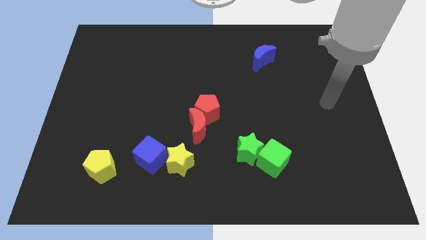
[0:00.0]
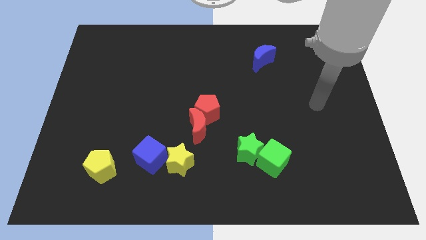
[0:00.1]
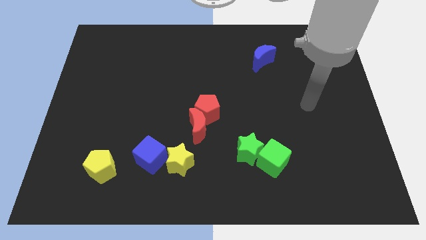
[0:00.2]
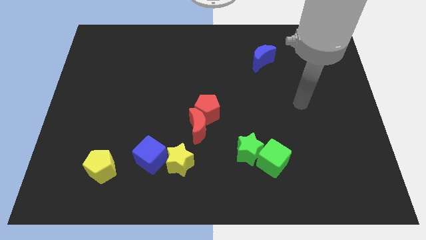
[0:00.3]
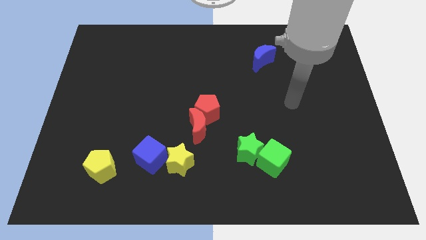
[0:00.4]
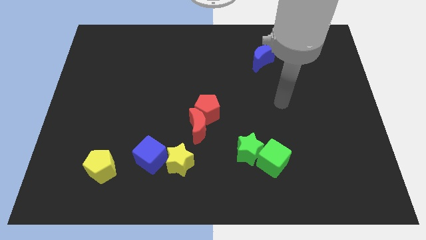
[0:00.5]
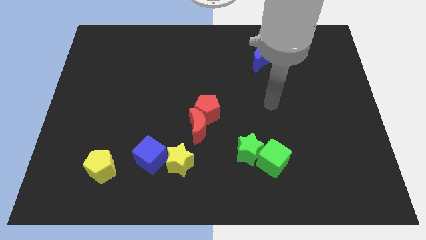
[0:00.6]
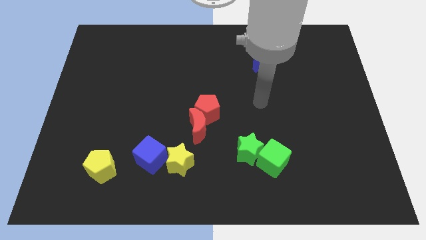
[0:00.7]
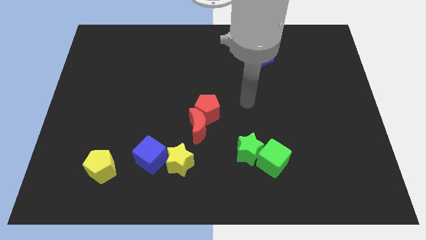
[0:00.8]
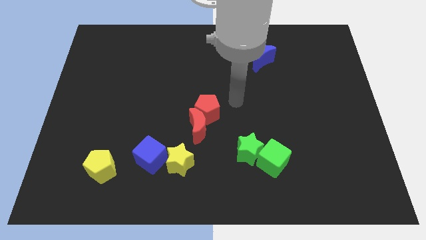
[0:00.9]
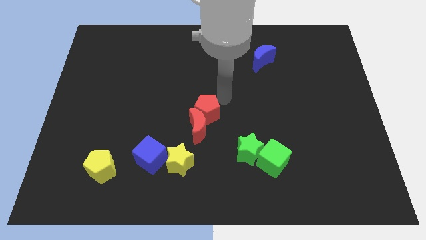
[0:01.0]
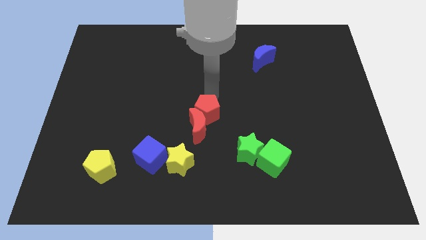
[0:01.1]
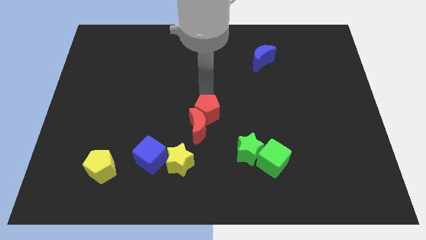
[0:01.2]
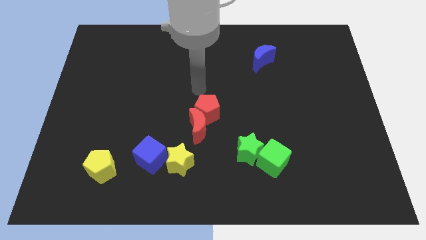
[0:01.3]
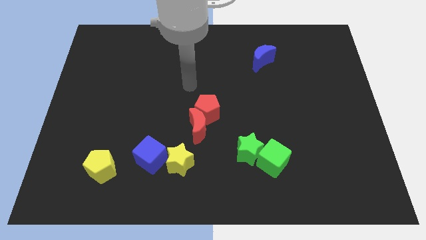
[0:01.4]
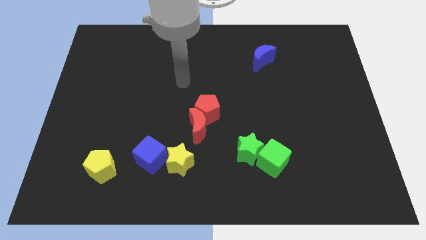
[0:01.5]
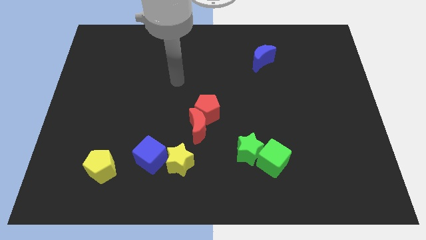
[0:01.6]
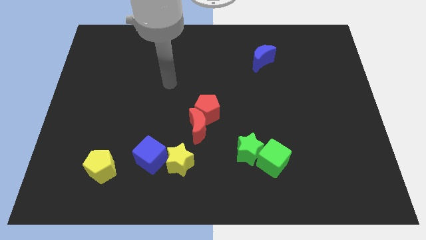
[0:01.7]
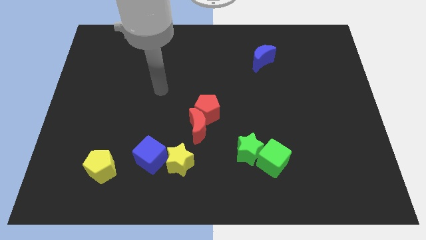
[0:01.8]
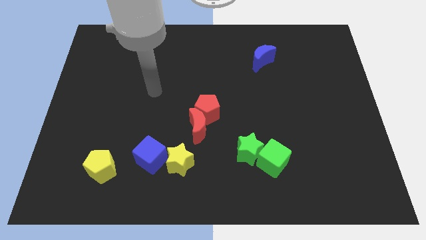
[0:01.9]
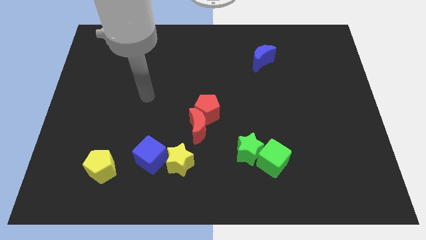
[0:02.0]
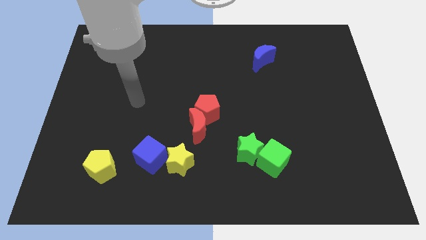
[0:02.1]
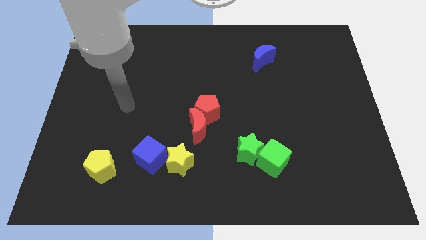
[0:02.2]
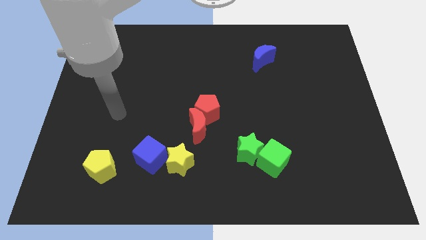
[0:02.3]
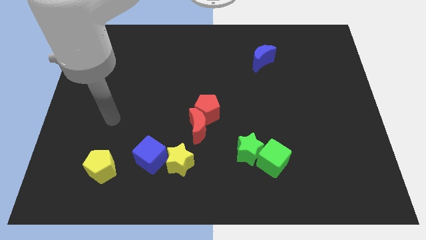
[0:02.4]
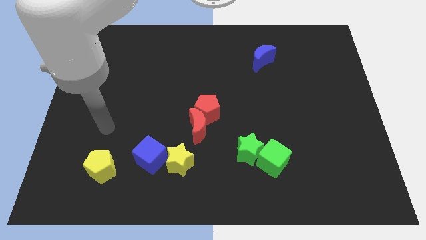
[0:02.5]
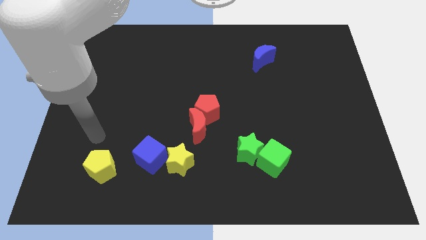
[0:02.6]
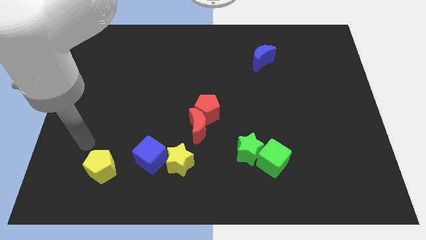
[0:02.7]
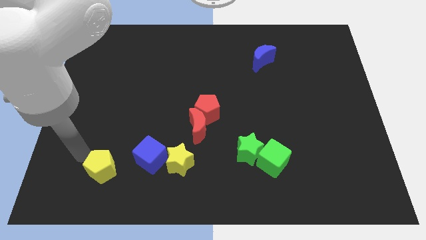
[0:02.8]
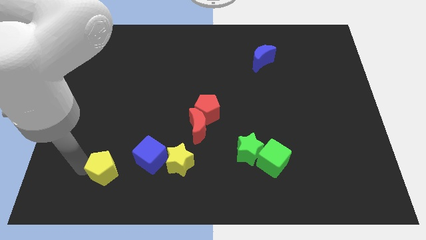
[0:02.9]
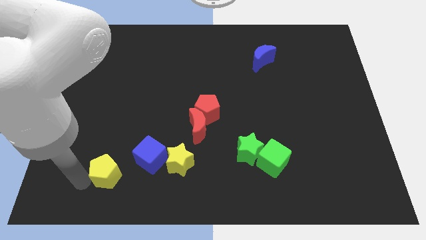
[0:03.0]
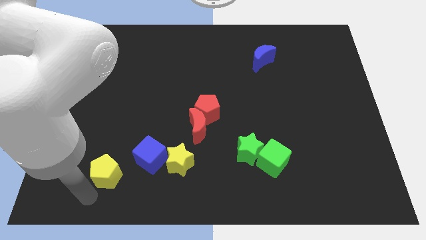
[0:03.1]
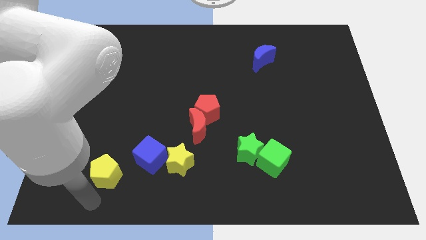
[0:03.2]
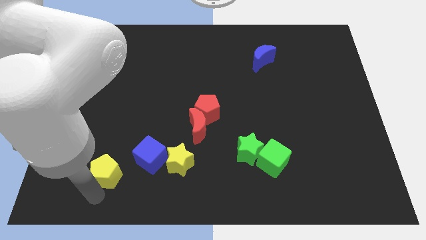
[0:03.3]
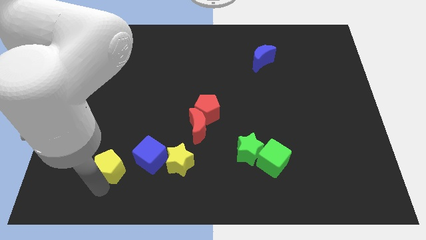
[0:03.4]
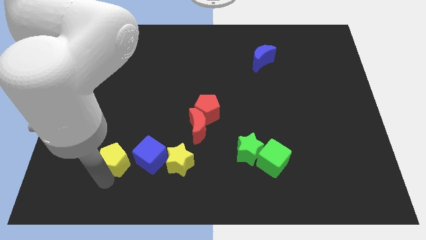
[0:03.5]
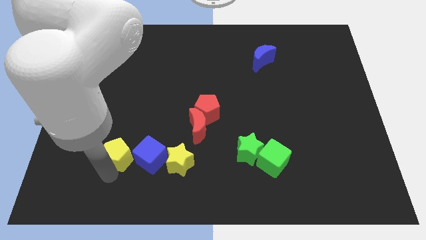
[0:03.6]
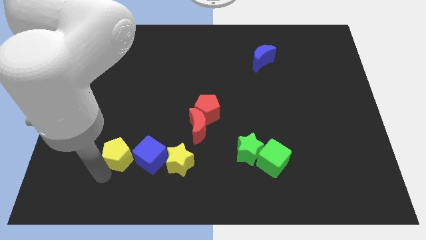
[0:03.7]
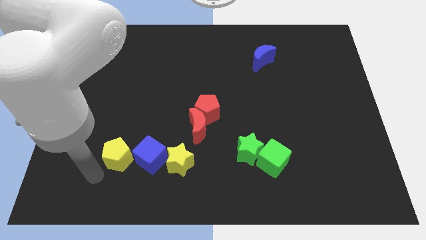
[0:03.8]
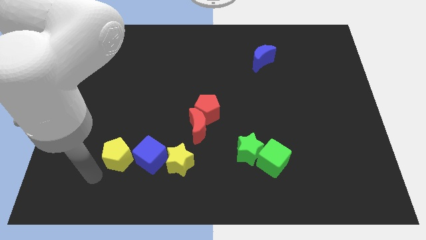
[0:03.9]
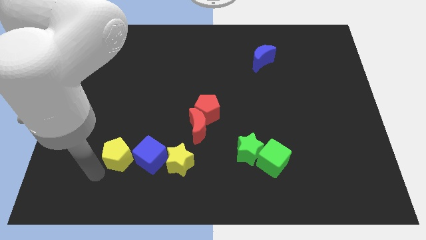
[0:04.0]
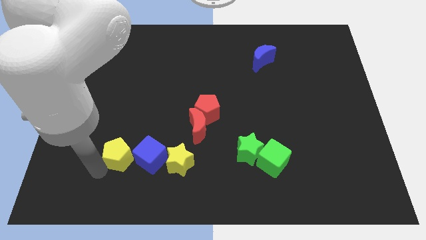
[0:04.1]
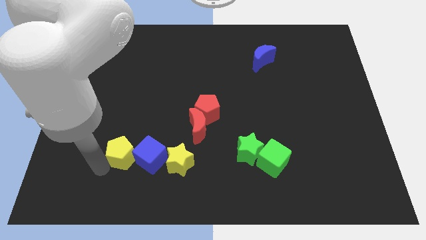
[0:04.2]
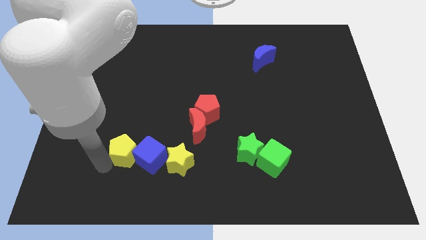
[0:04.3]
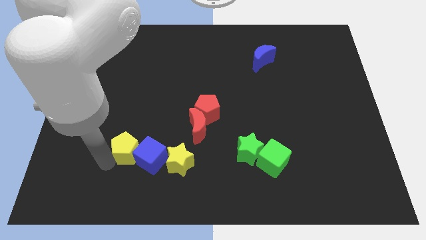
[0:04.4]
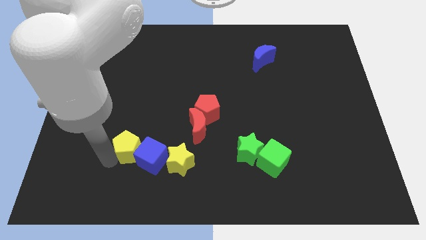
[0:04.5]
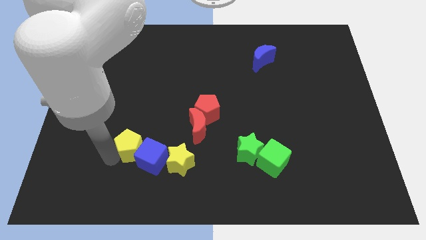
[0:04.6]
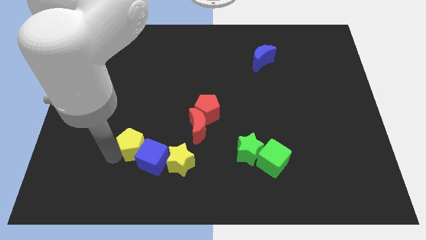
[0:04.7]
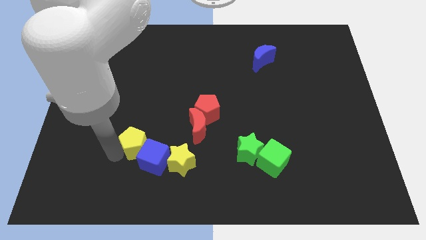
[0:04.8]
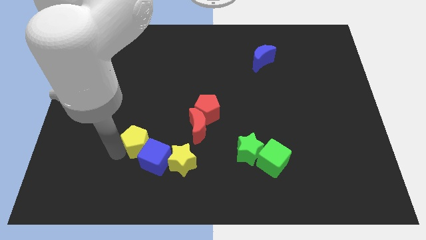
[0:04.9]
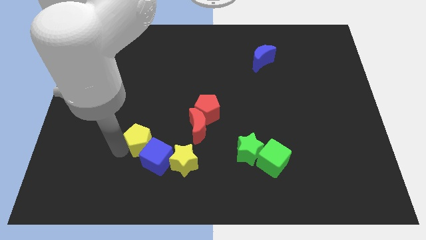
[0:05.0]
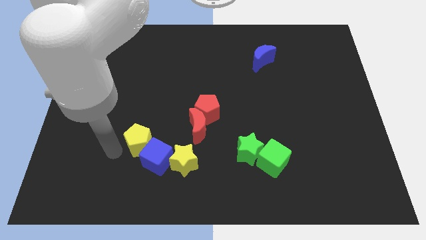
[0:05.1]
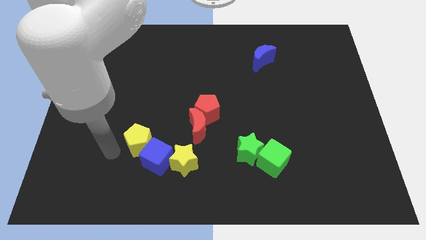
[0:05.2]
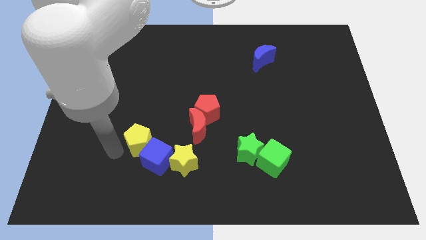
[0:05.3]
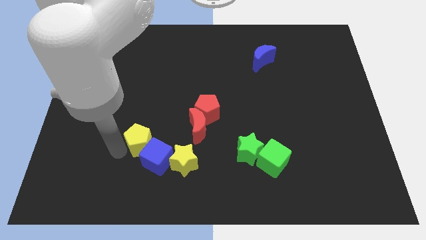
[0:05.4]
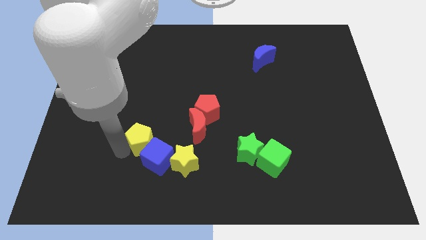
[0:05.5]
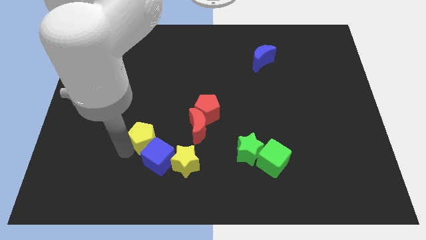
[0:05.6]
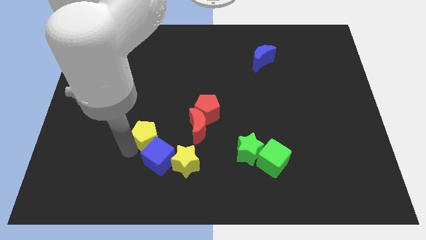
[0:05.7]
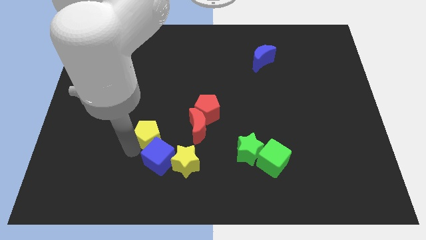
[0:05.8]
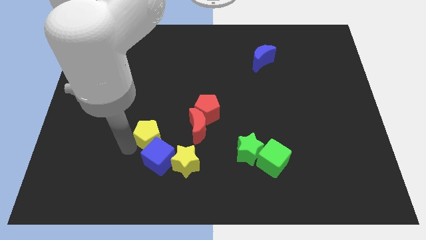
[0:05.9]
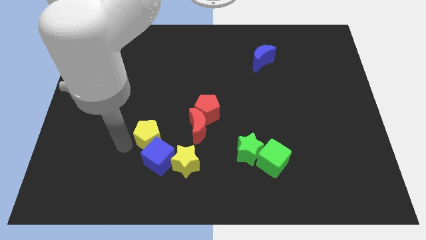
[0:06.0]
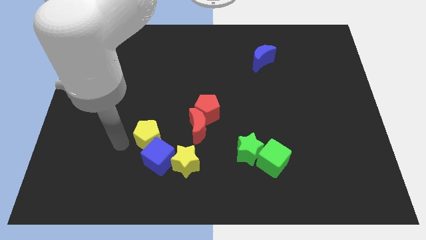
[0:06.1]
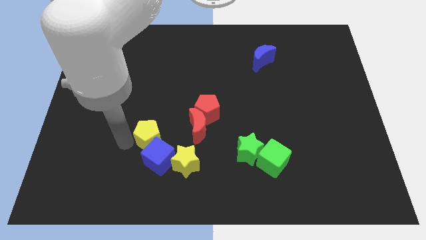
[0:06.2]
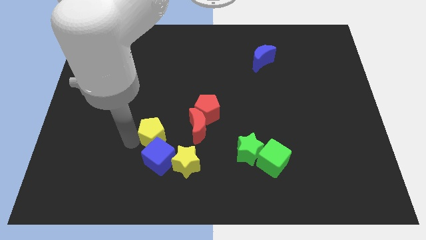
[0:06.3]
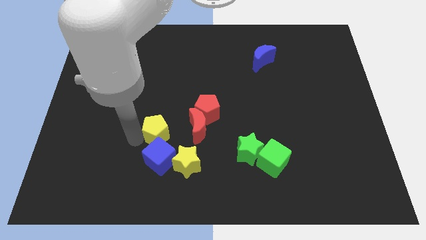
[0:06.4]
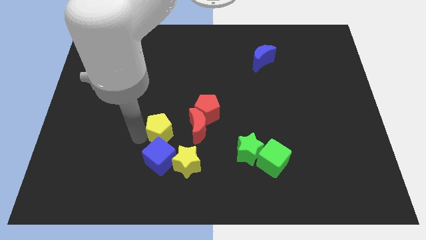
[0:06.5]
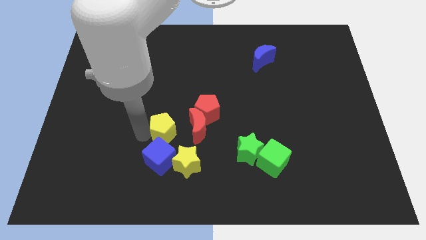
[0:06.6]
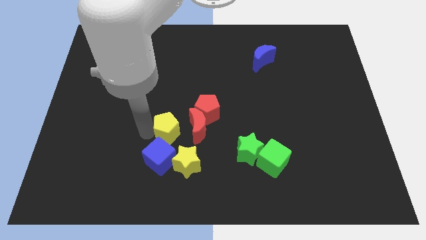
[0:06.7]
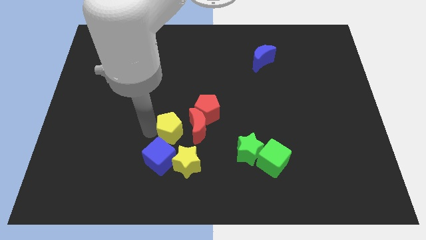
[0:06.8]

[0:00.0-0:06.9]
put the yellow pentagon towards the red moon
